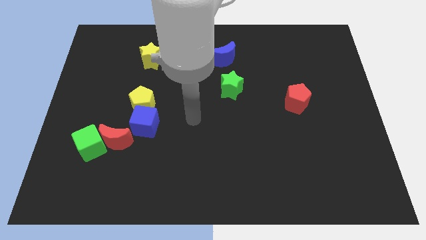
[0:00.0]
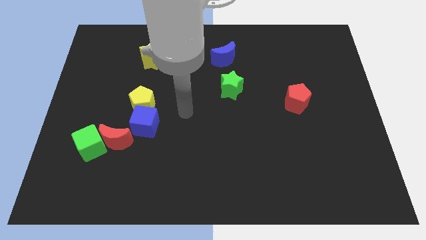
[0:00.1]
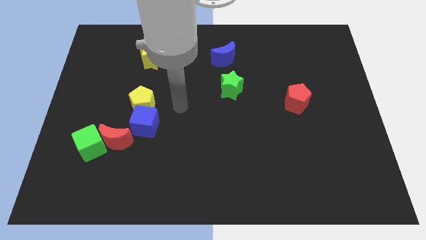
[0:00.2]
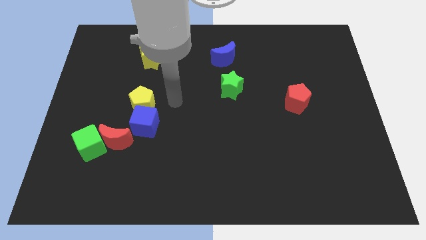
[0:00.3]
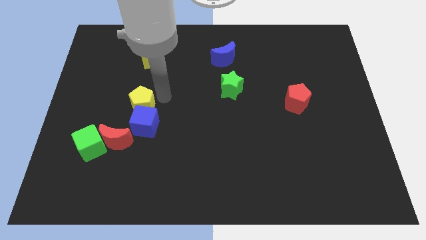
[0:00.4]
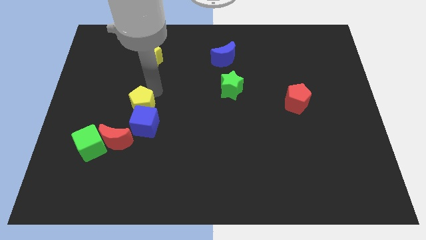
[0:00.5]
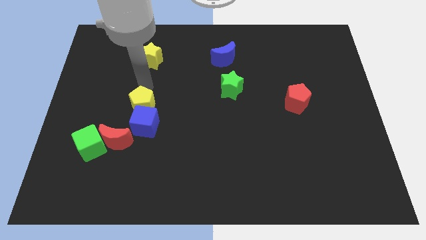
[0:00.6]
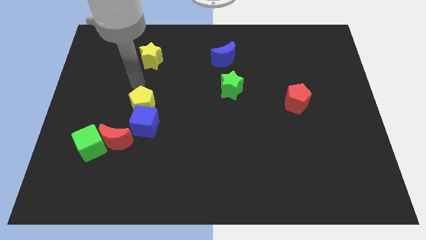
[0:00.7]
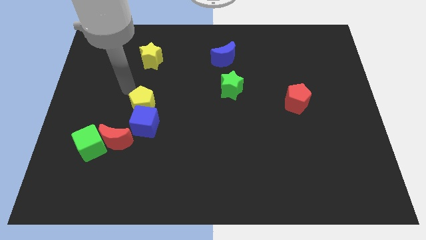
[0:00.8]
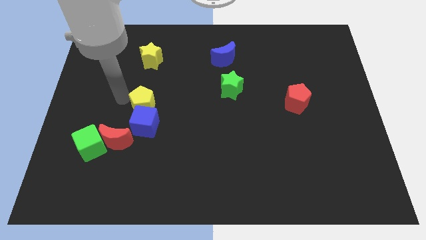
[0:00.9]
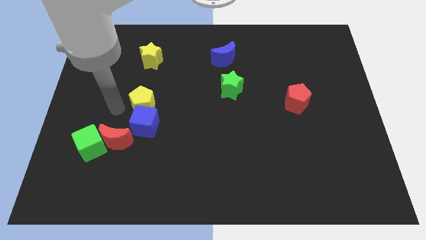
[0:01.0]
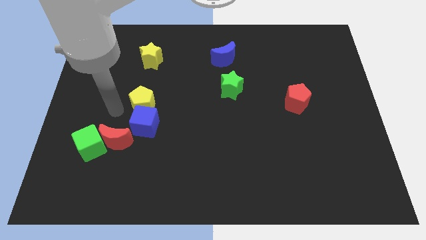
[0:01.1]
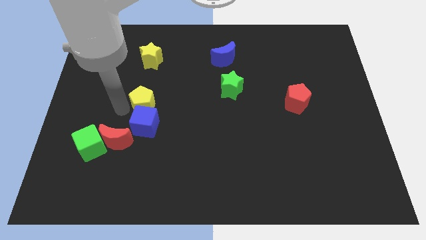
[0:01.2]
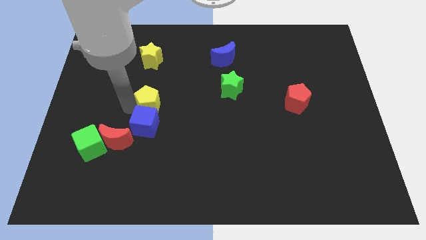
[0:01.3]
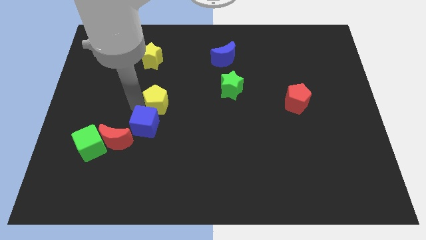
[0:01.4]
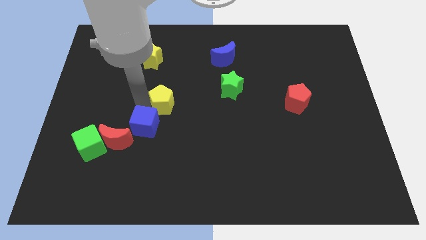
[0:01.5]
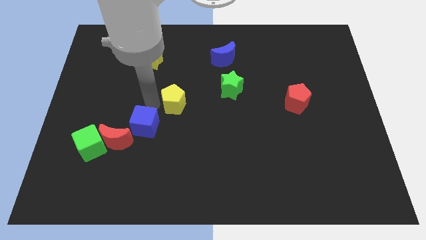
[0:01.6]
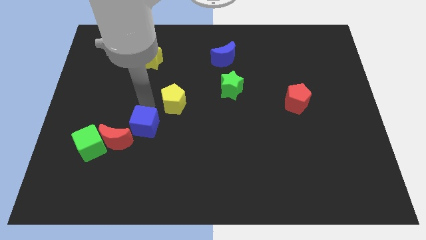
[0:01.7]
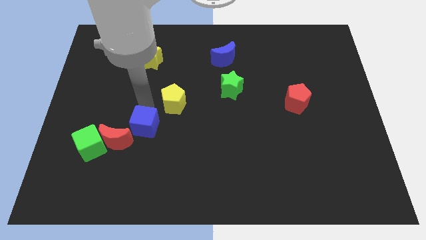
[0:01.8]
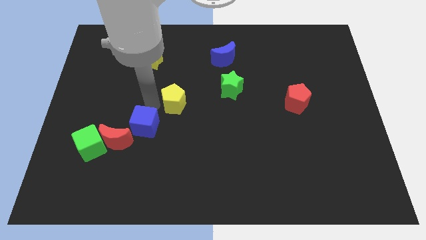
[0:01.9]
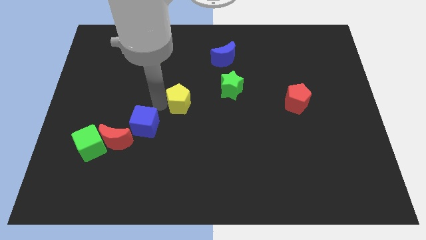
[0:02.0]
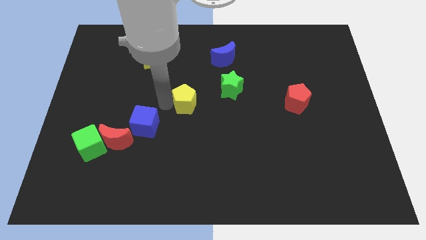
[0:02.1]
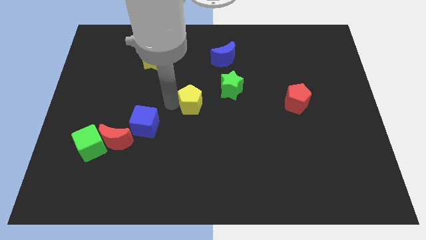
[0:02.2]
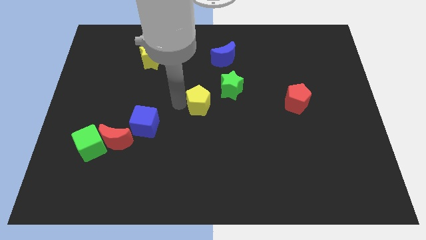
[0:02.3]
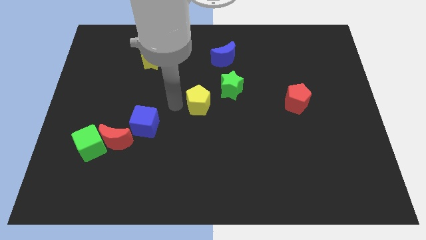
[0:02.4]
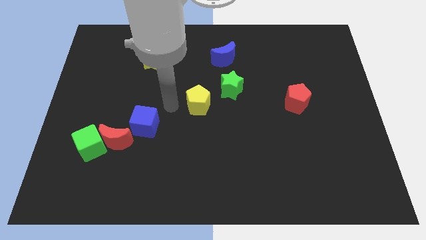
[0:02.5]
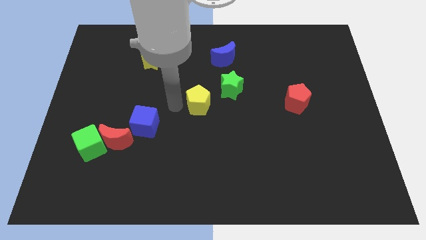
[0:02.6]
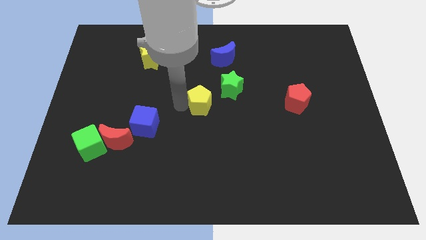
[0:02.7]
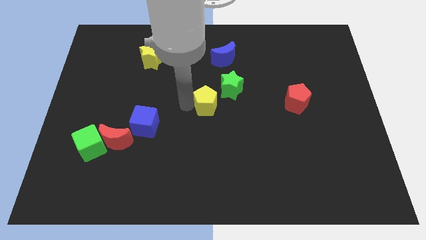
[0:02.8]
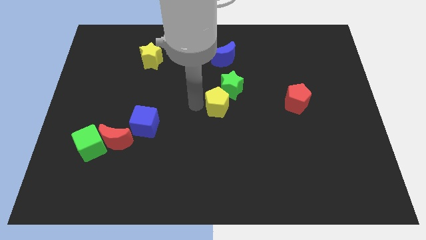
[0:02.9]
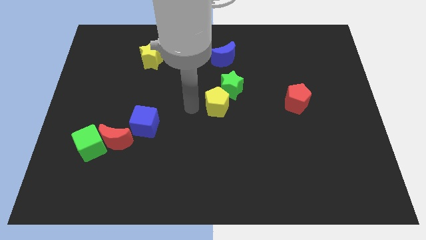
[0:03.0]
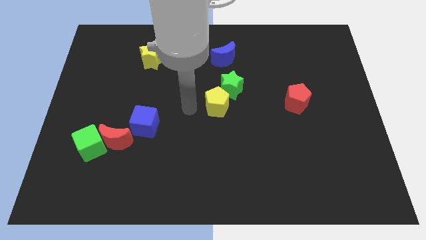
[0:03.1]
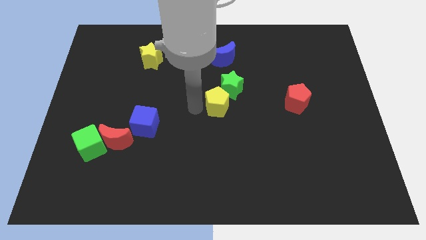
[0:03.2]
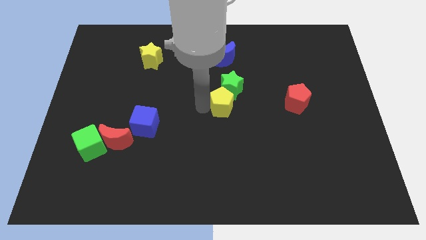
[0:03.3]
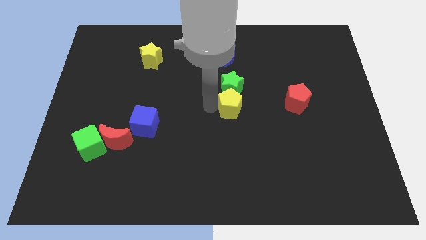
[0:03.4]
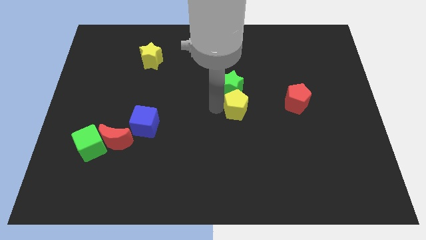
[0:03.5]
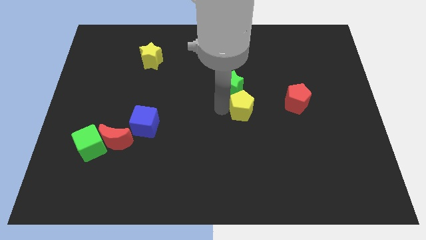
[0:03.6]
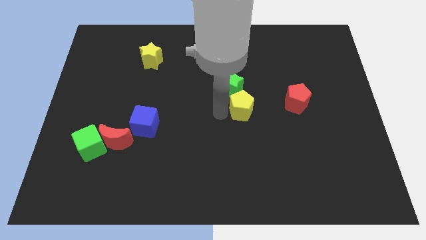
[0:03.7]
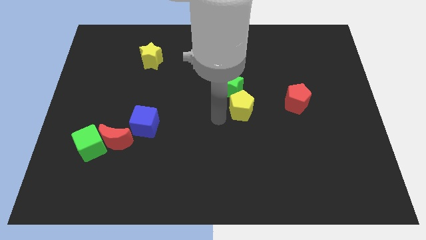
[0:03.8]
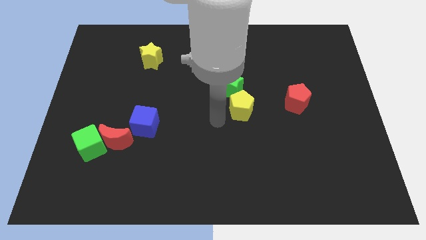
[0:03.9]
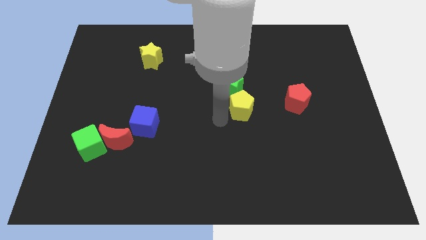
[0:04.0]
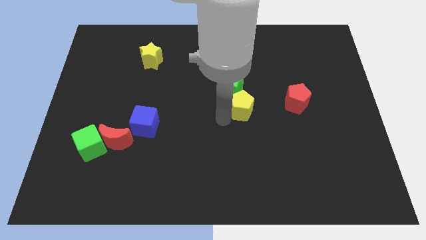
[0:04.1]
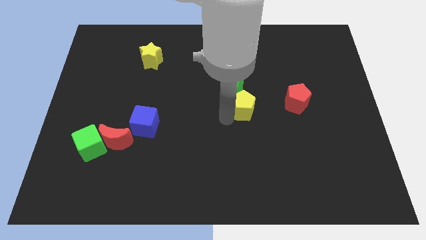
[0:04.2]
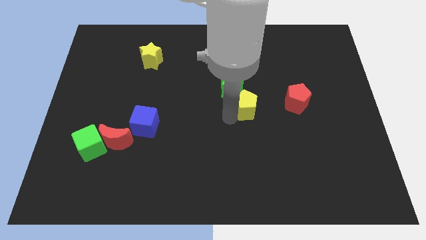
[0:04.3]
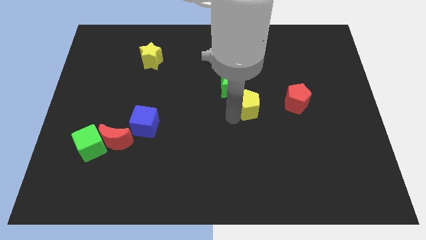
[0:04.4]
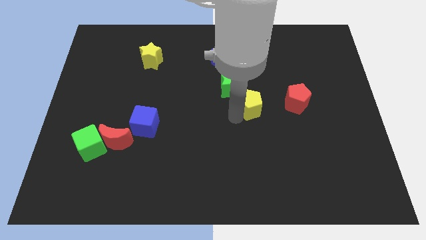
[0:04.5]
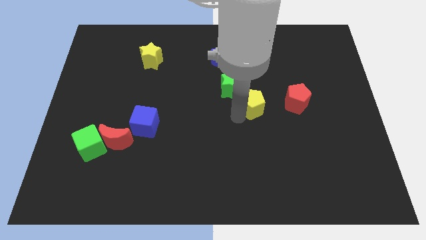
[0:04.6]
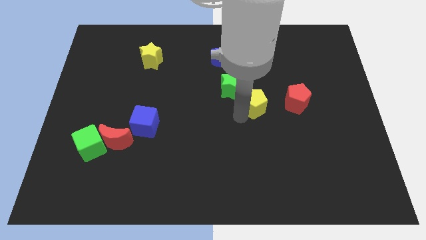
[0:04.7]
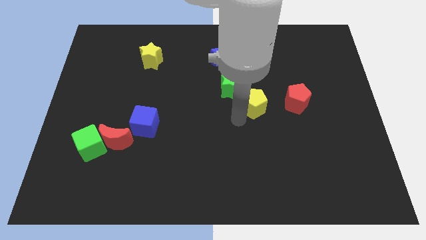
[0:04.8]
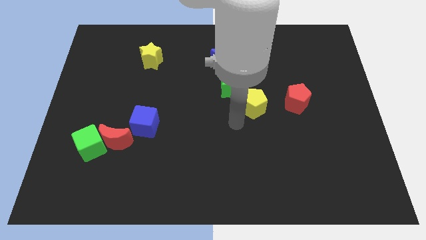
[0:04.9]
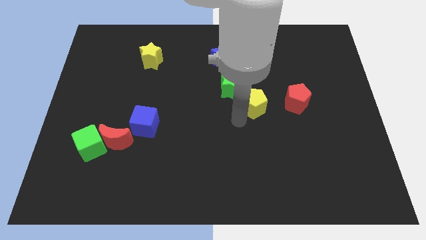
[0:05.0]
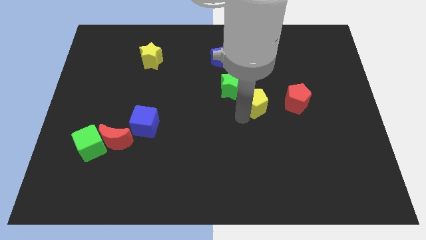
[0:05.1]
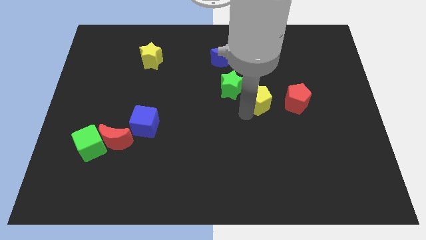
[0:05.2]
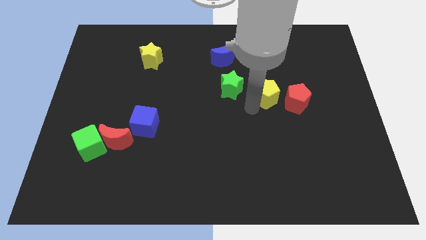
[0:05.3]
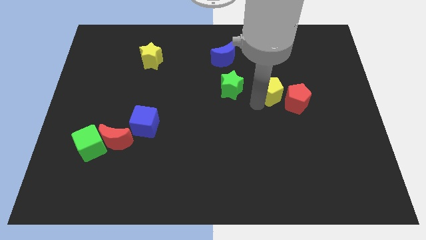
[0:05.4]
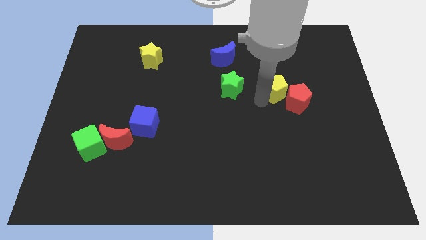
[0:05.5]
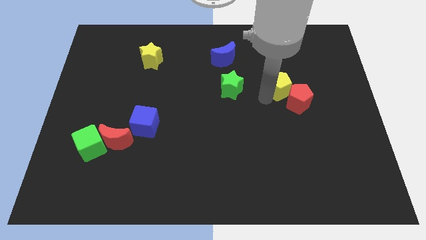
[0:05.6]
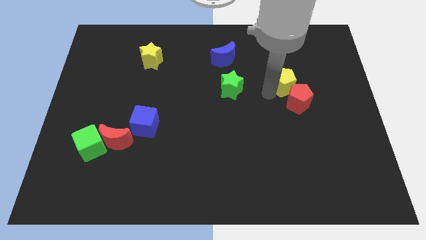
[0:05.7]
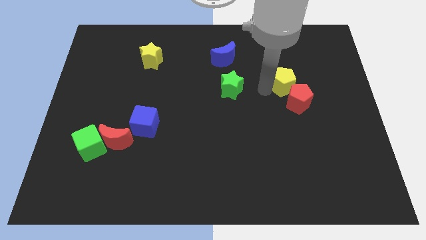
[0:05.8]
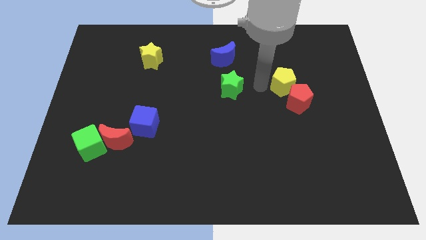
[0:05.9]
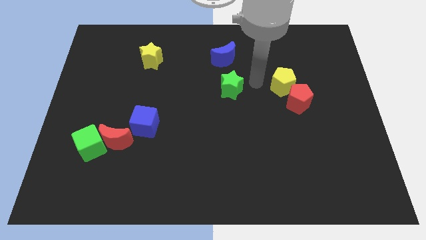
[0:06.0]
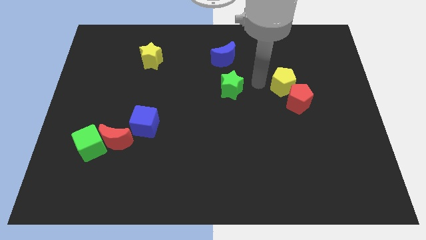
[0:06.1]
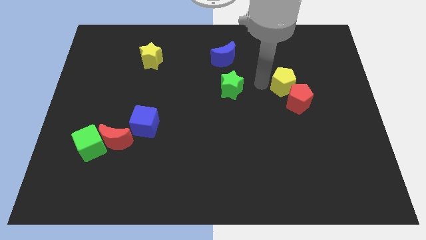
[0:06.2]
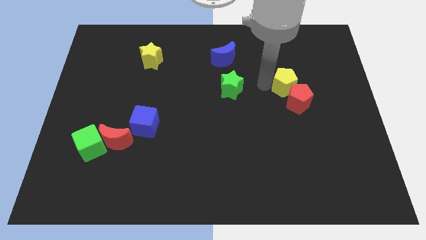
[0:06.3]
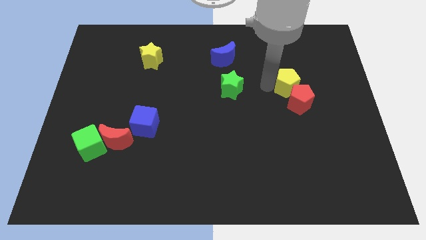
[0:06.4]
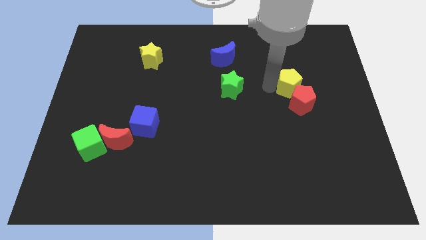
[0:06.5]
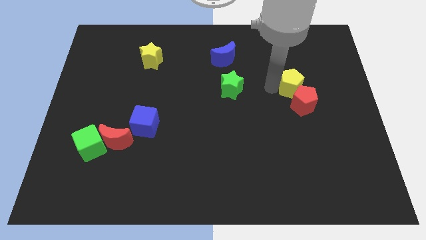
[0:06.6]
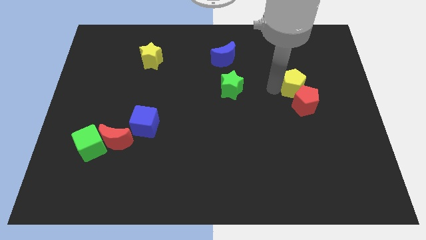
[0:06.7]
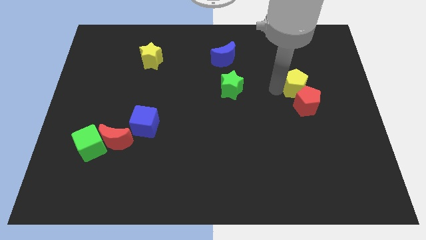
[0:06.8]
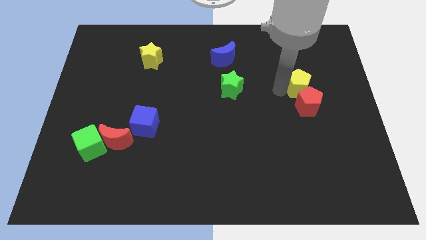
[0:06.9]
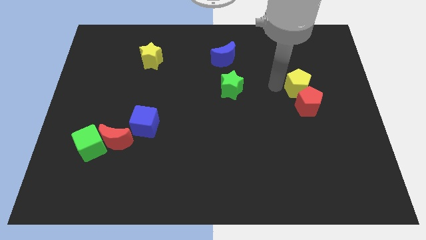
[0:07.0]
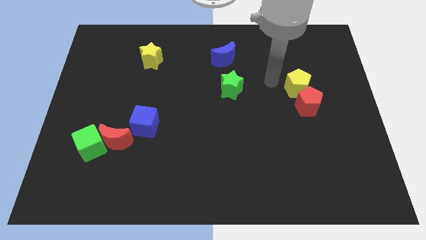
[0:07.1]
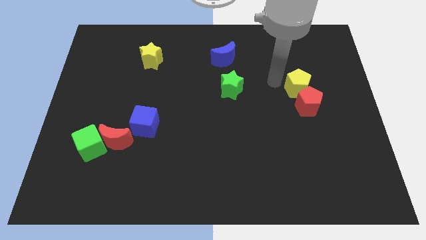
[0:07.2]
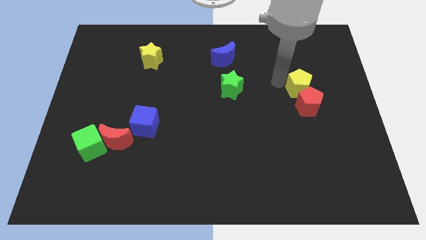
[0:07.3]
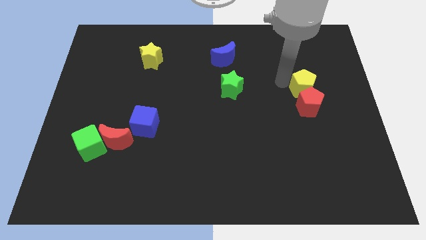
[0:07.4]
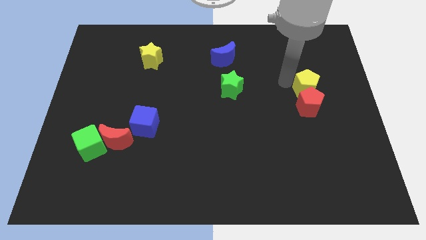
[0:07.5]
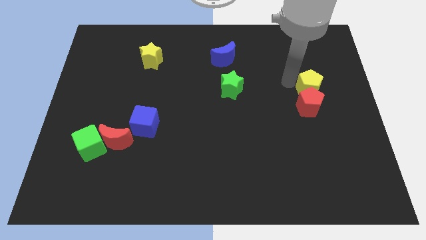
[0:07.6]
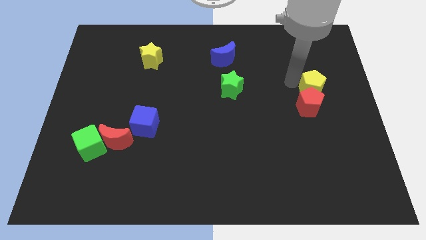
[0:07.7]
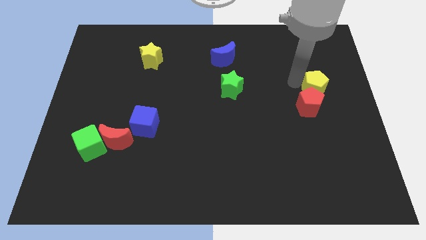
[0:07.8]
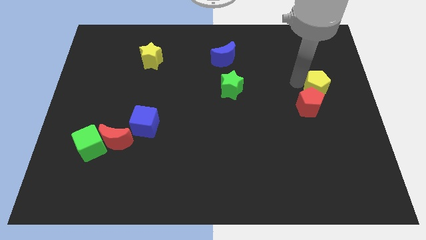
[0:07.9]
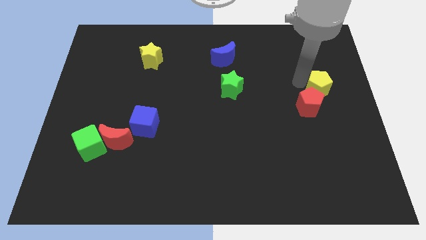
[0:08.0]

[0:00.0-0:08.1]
slide the yellow pentagon to the right side
